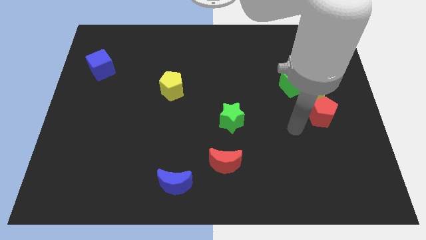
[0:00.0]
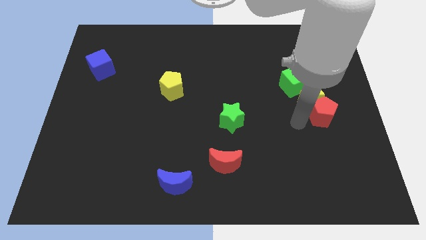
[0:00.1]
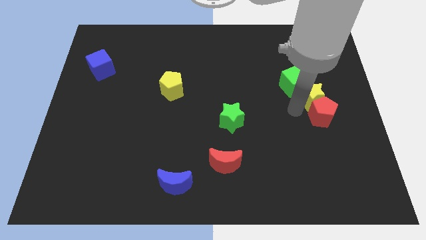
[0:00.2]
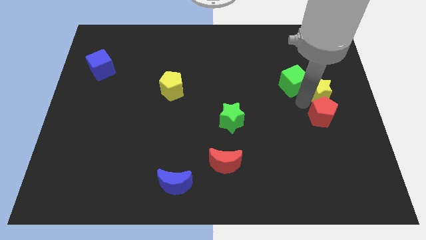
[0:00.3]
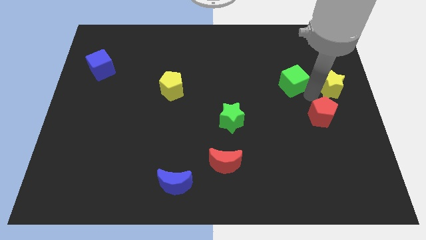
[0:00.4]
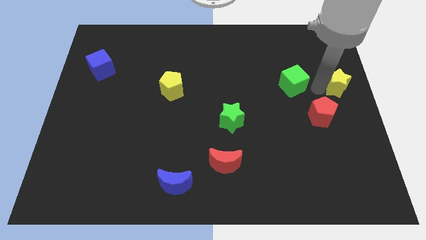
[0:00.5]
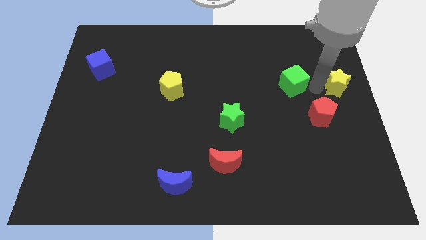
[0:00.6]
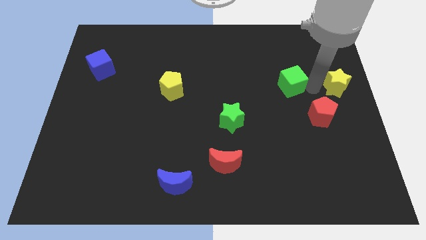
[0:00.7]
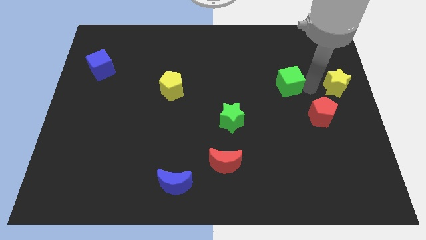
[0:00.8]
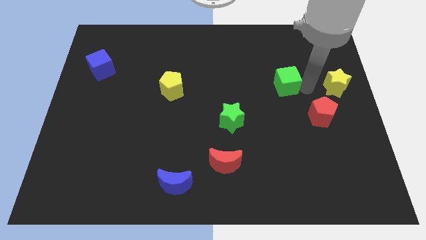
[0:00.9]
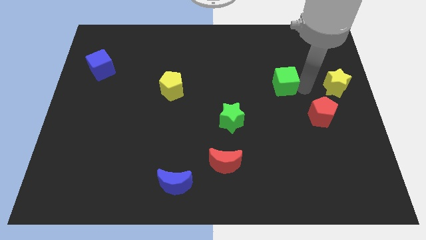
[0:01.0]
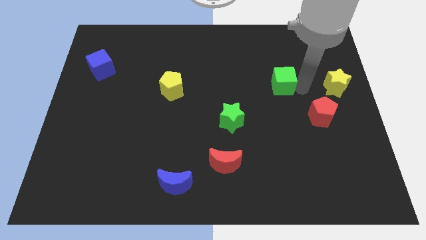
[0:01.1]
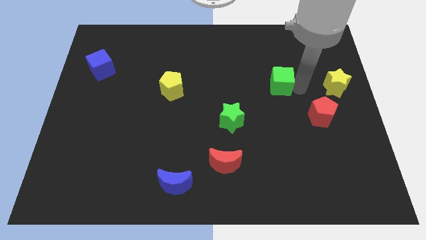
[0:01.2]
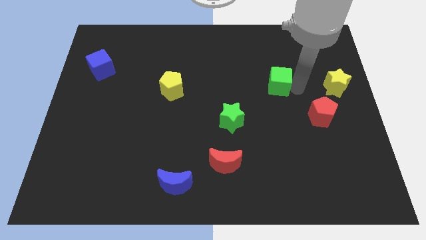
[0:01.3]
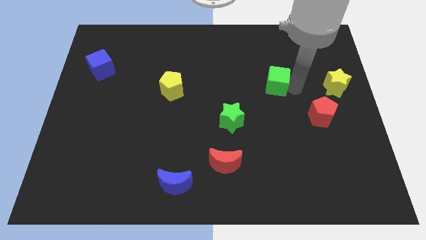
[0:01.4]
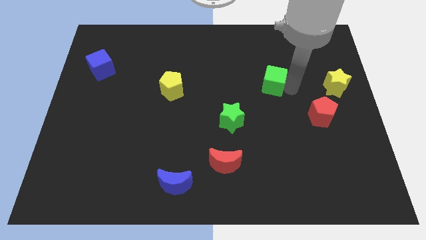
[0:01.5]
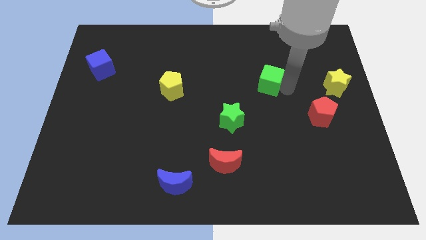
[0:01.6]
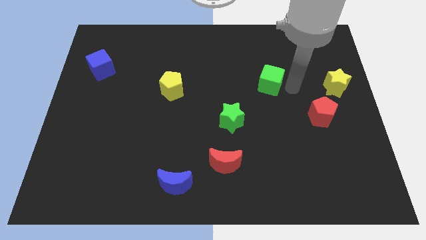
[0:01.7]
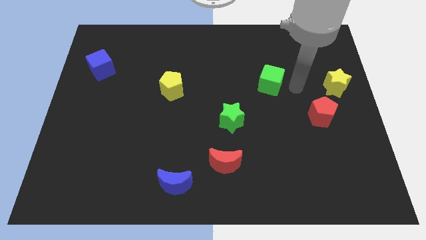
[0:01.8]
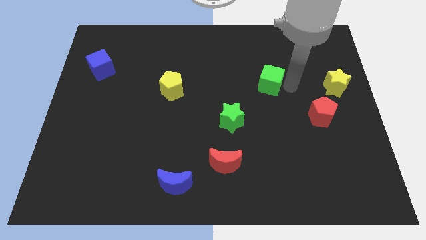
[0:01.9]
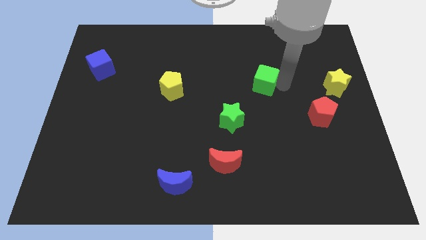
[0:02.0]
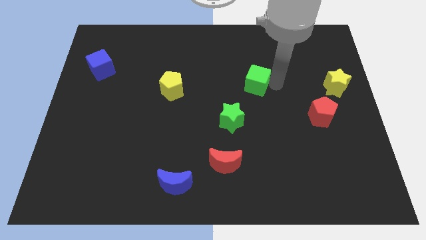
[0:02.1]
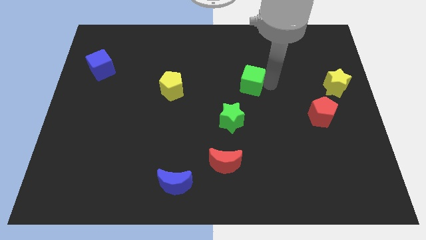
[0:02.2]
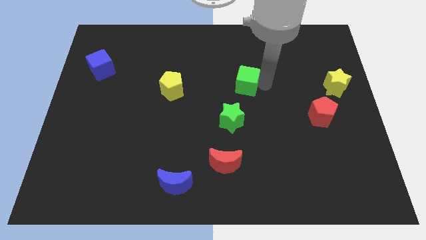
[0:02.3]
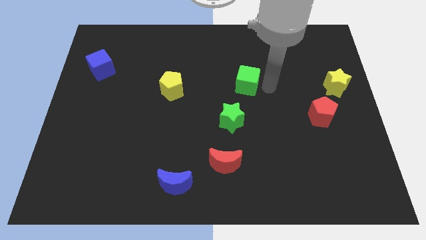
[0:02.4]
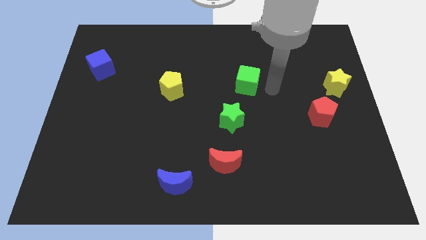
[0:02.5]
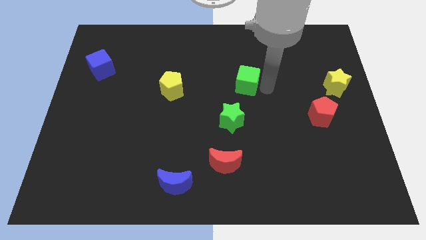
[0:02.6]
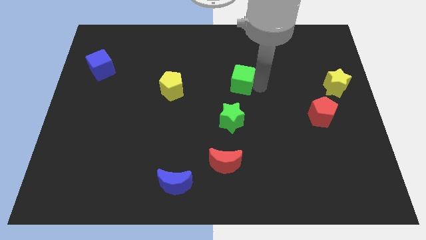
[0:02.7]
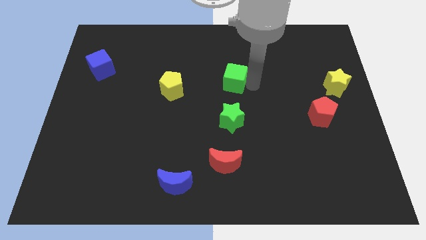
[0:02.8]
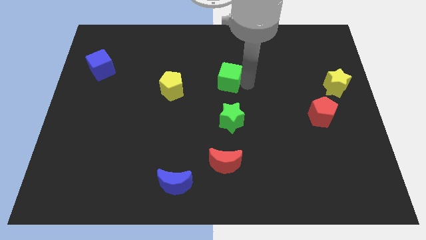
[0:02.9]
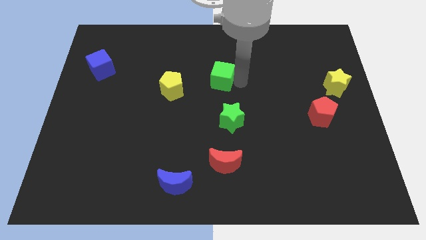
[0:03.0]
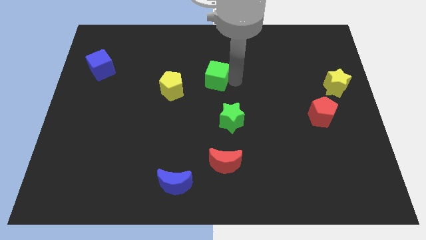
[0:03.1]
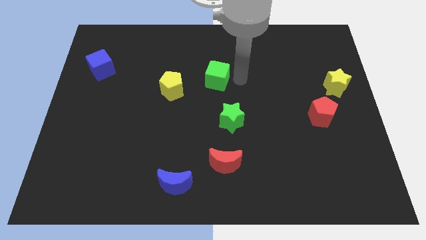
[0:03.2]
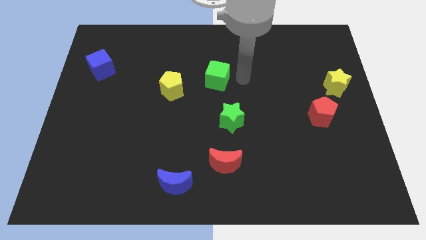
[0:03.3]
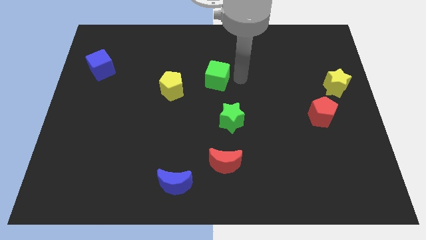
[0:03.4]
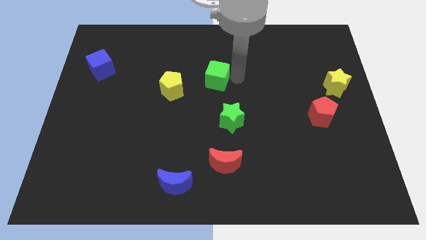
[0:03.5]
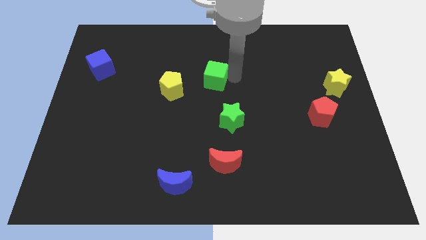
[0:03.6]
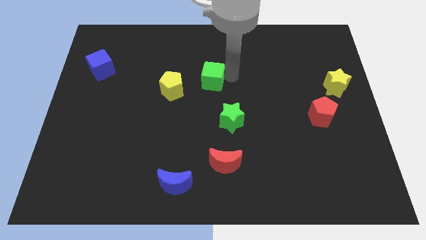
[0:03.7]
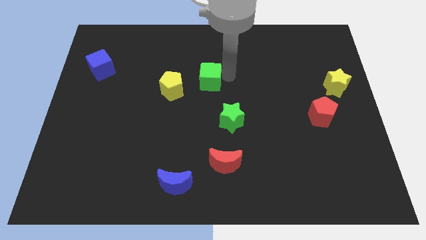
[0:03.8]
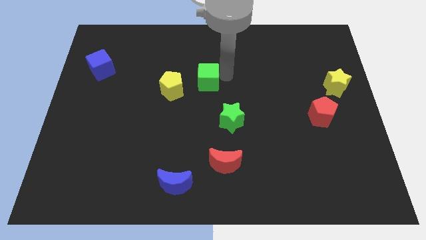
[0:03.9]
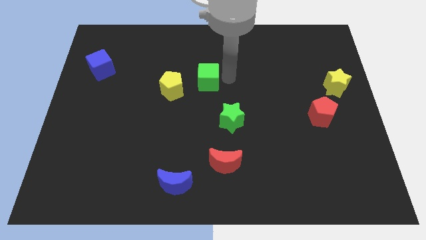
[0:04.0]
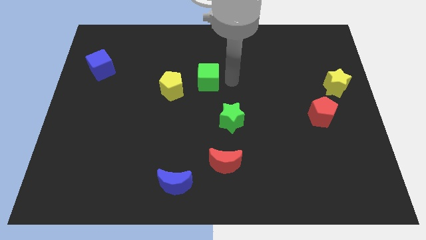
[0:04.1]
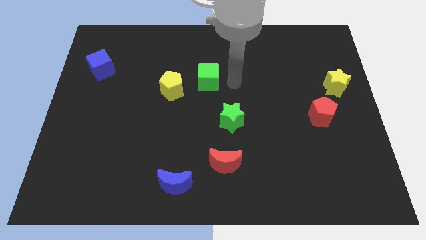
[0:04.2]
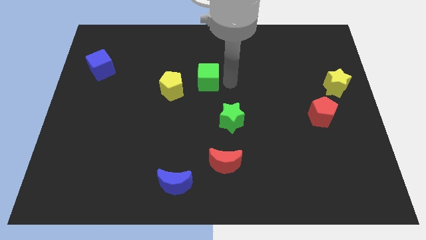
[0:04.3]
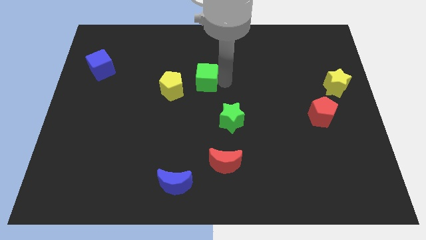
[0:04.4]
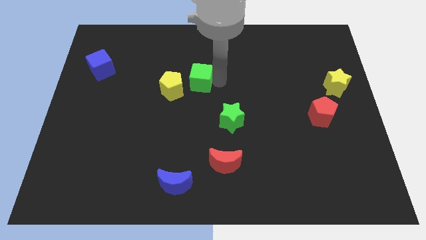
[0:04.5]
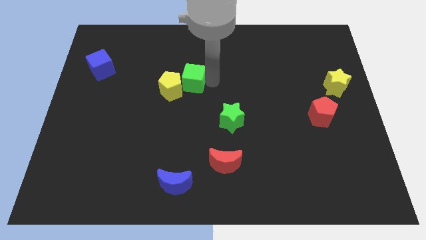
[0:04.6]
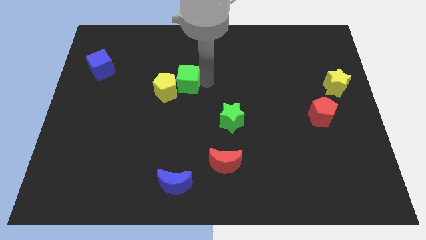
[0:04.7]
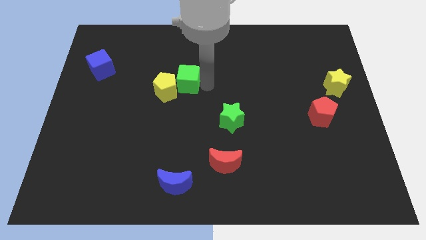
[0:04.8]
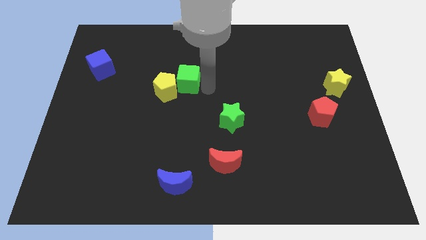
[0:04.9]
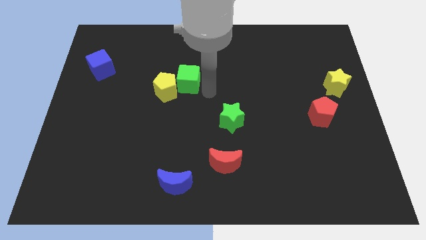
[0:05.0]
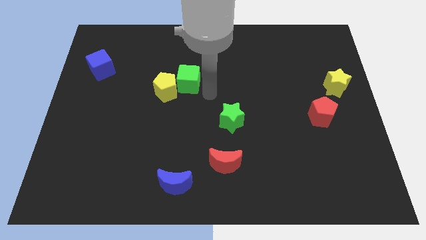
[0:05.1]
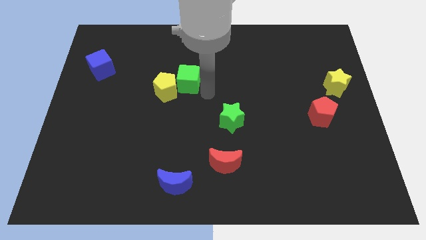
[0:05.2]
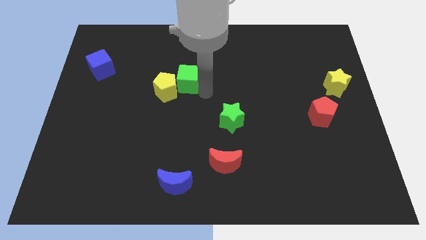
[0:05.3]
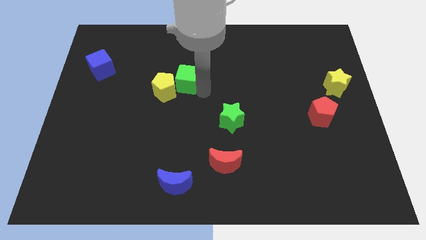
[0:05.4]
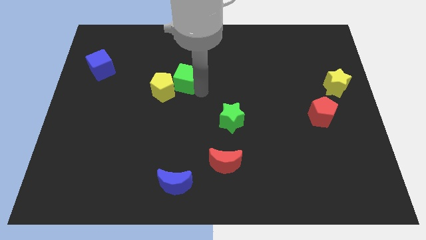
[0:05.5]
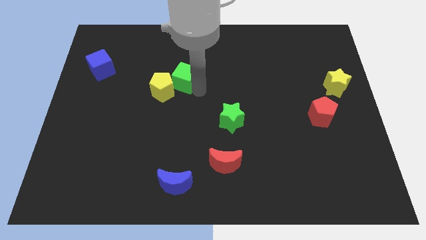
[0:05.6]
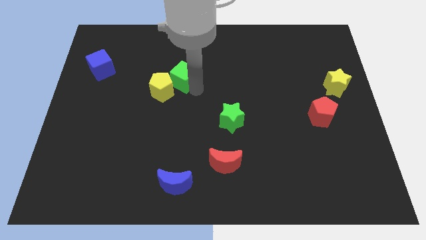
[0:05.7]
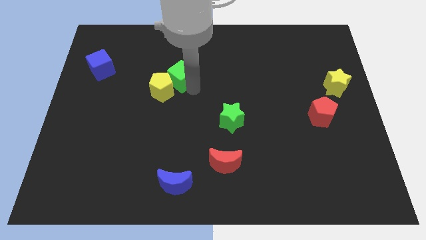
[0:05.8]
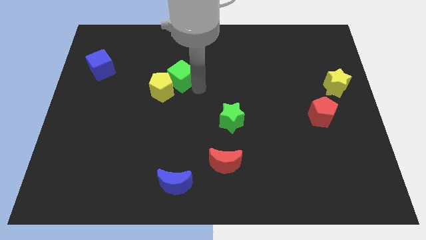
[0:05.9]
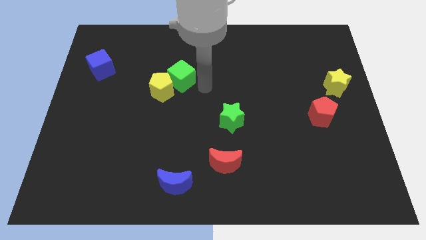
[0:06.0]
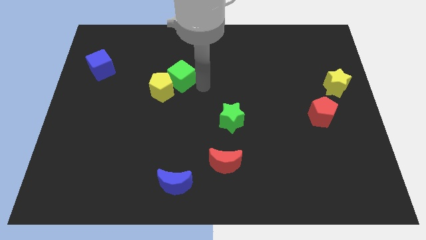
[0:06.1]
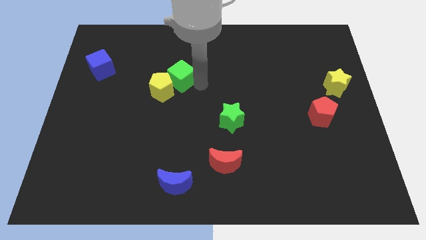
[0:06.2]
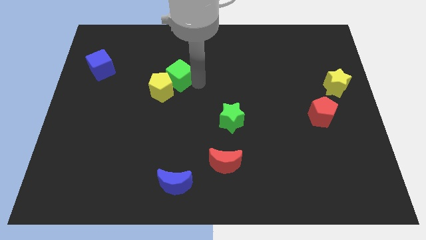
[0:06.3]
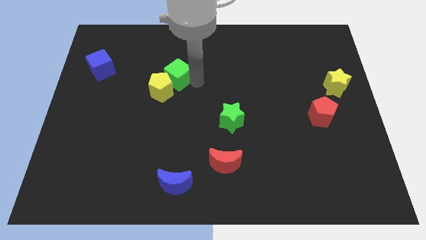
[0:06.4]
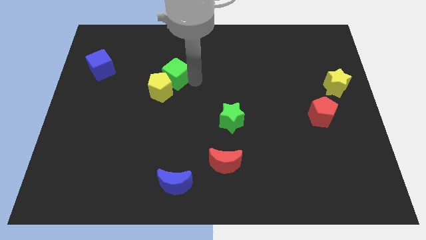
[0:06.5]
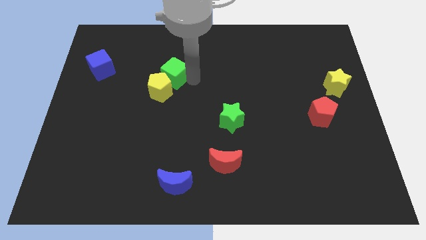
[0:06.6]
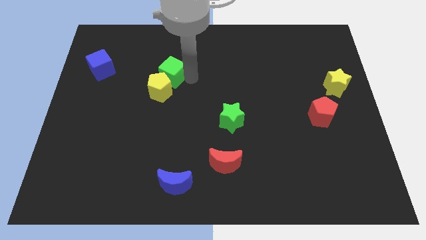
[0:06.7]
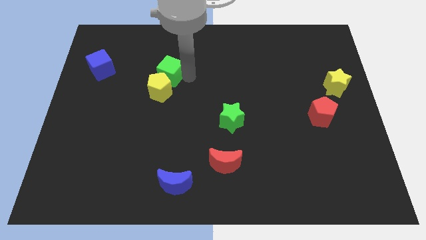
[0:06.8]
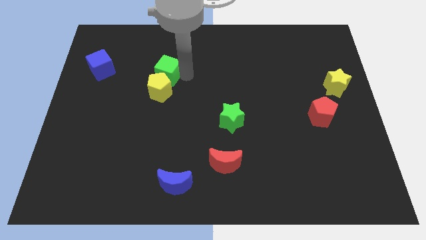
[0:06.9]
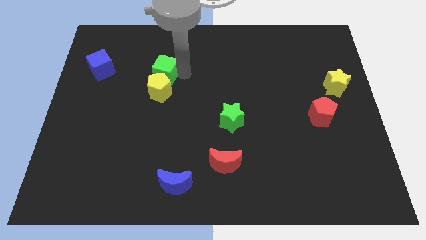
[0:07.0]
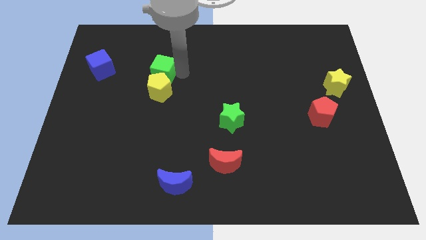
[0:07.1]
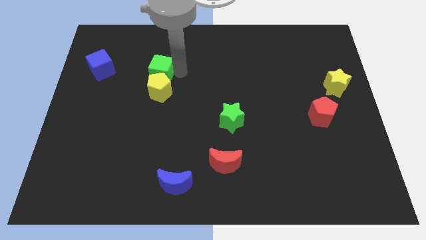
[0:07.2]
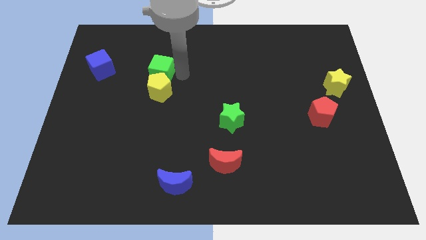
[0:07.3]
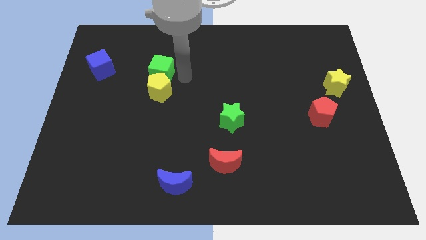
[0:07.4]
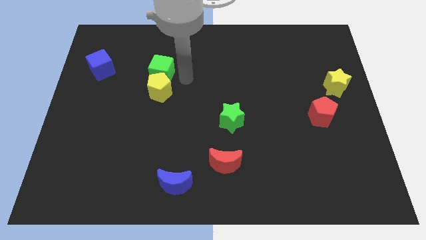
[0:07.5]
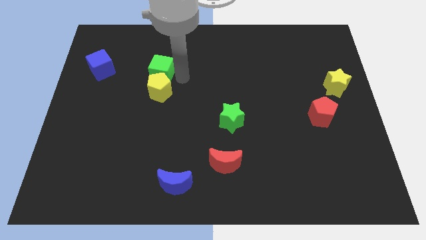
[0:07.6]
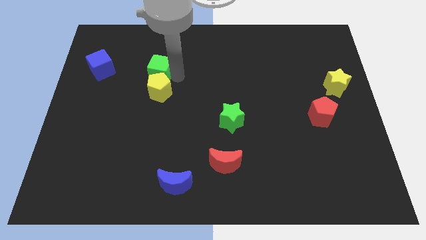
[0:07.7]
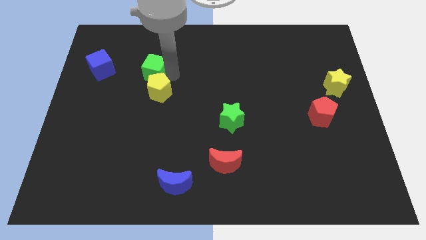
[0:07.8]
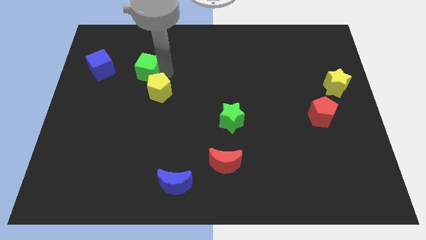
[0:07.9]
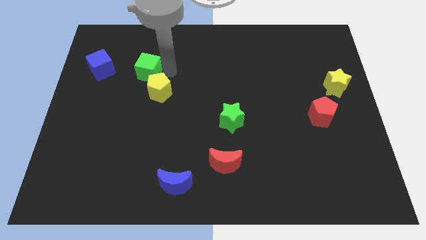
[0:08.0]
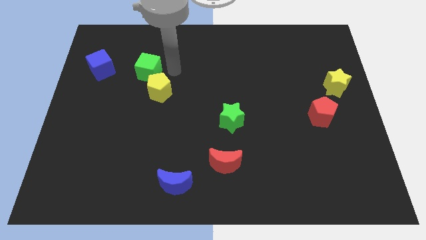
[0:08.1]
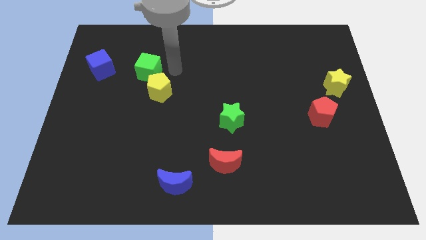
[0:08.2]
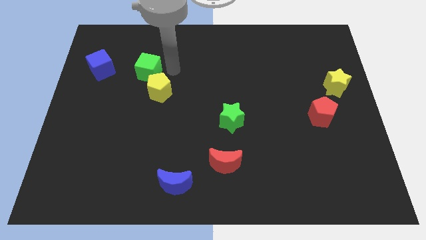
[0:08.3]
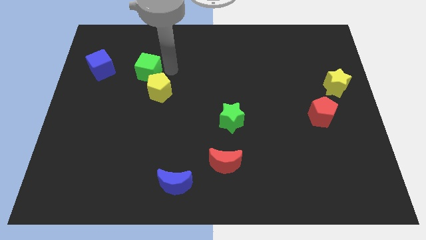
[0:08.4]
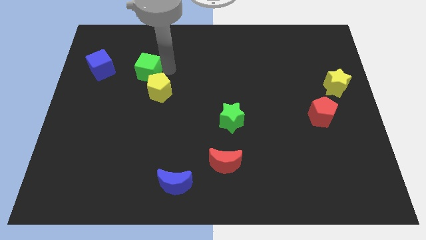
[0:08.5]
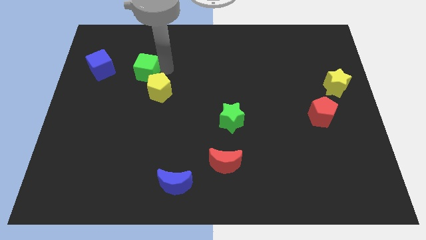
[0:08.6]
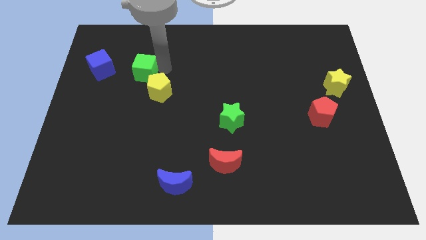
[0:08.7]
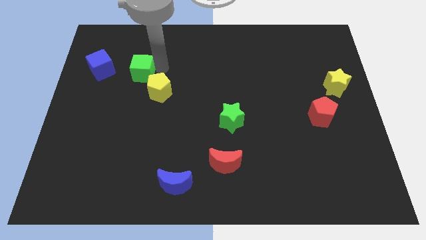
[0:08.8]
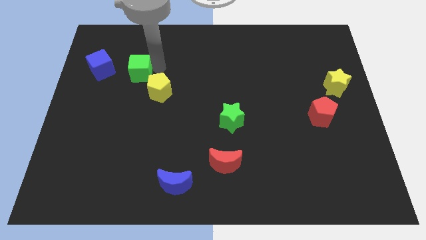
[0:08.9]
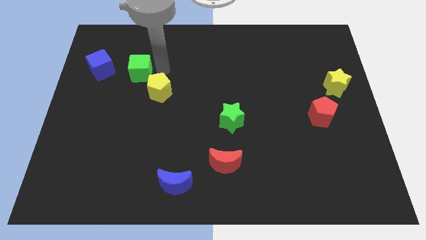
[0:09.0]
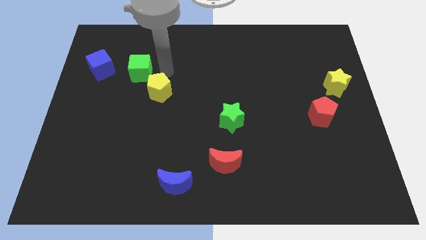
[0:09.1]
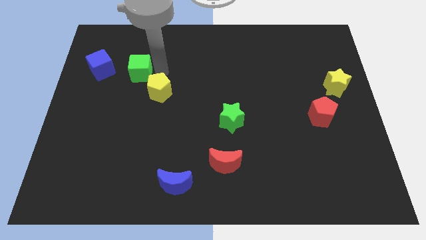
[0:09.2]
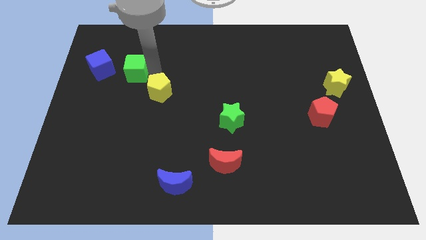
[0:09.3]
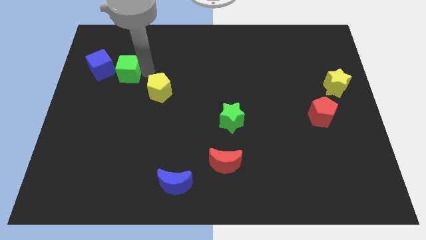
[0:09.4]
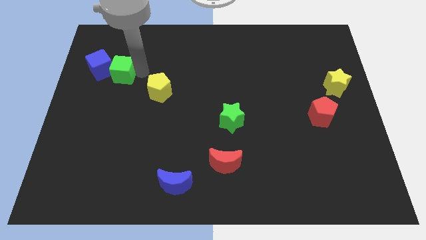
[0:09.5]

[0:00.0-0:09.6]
put the green cube next to the blue cube
